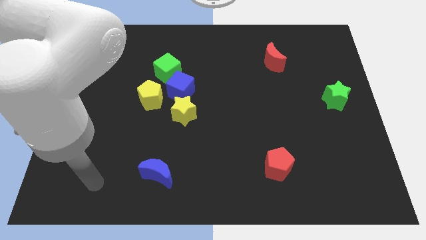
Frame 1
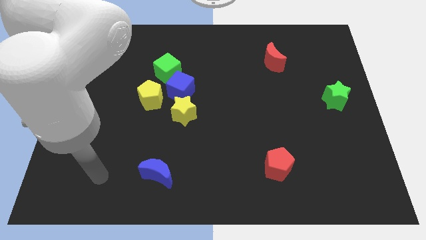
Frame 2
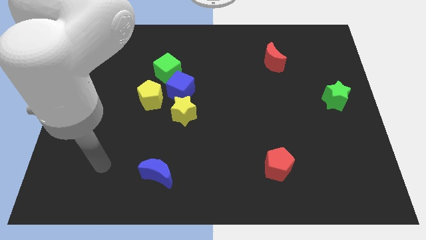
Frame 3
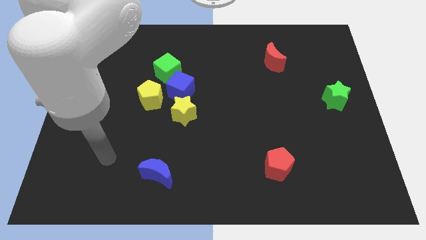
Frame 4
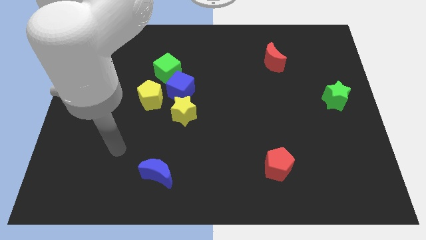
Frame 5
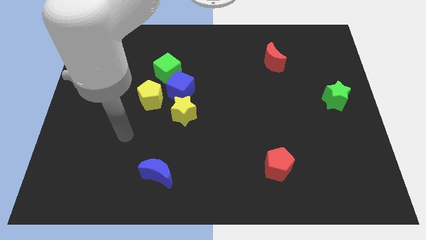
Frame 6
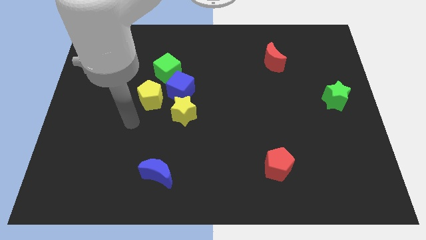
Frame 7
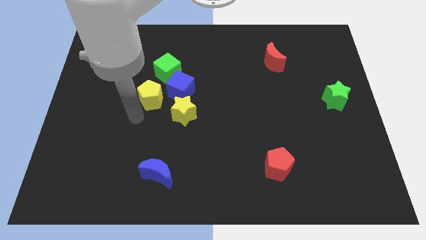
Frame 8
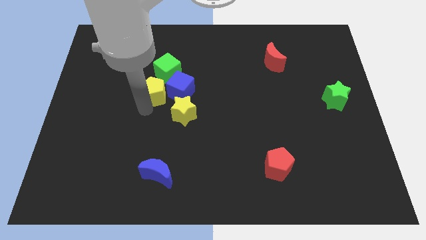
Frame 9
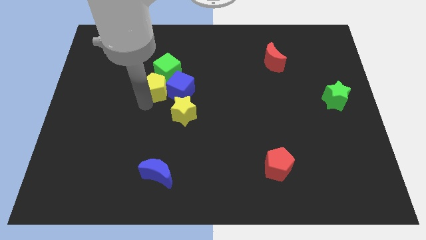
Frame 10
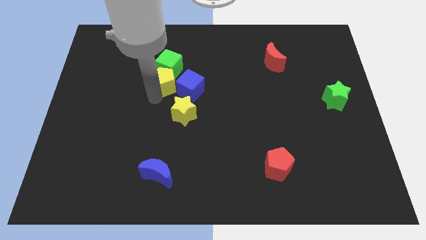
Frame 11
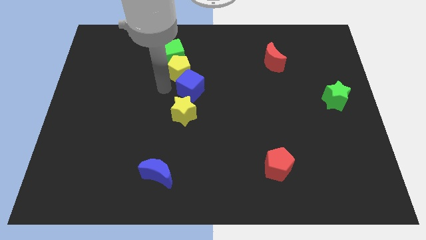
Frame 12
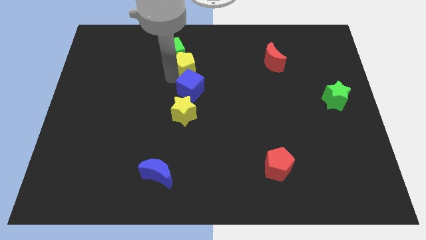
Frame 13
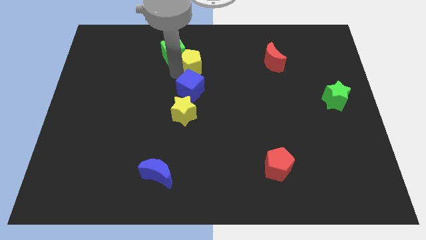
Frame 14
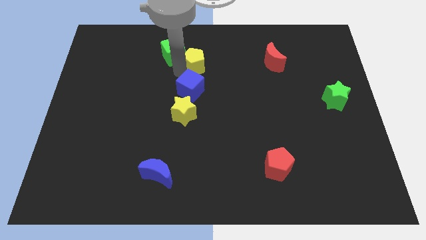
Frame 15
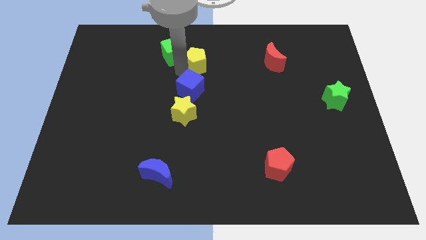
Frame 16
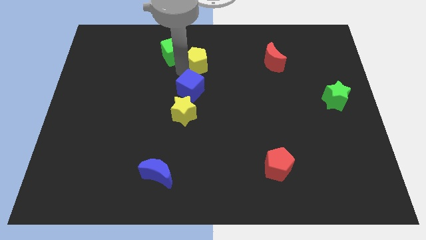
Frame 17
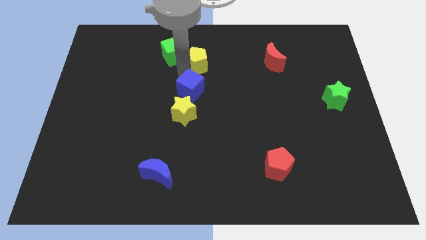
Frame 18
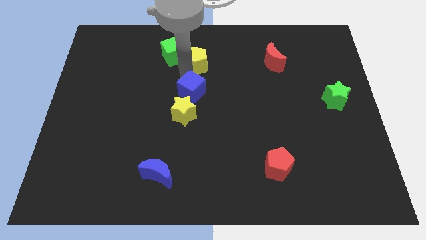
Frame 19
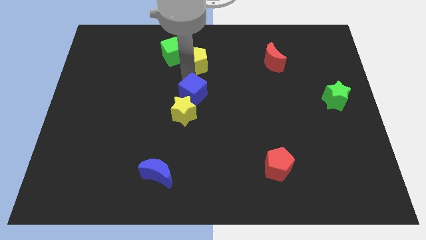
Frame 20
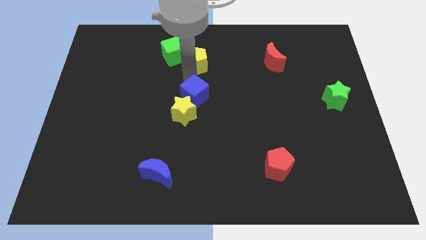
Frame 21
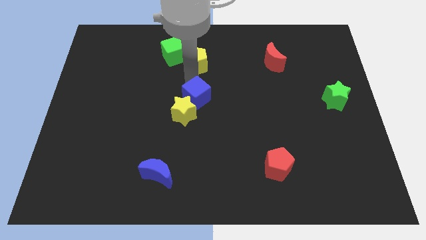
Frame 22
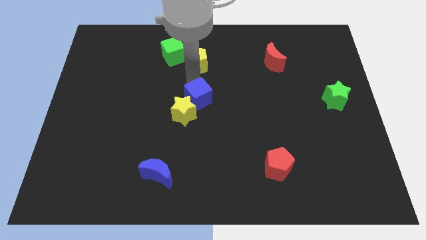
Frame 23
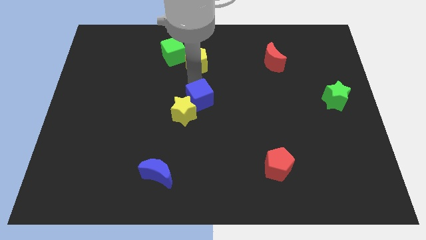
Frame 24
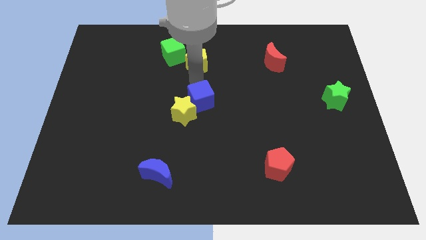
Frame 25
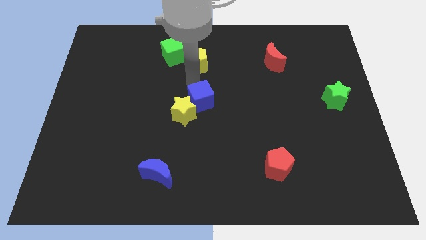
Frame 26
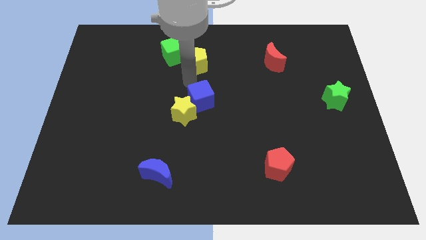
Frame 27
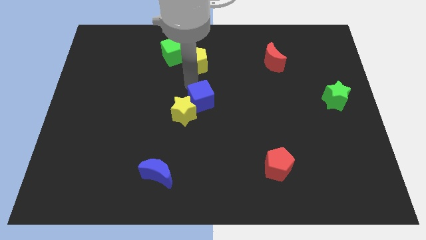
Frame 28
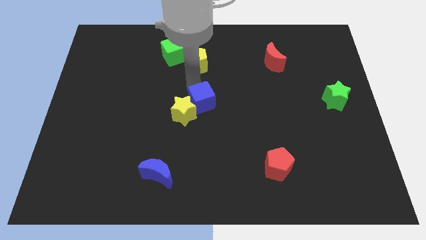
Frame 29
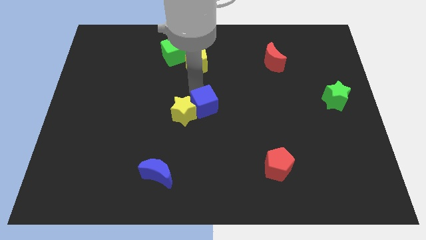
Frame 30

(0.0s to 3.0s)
move the blue cube away from the group of blocks

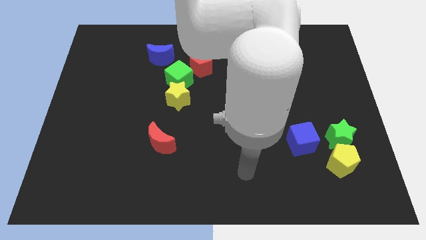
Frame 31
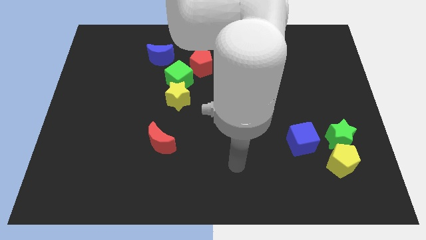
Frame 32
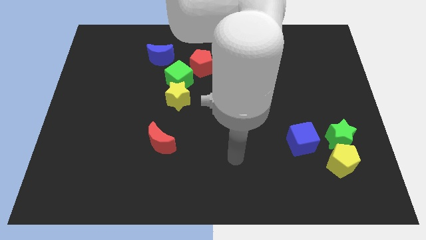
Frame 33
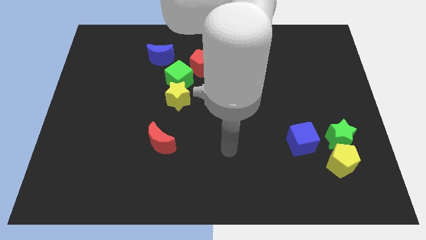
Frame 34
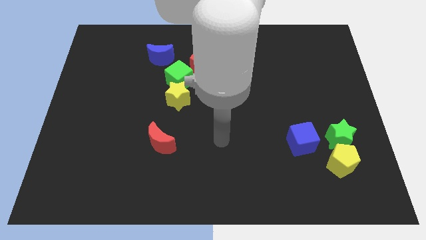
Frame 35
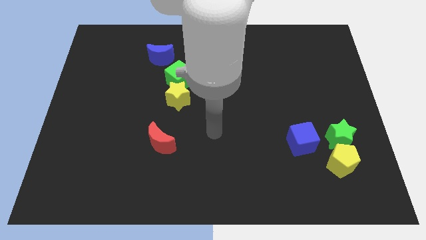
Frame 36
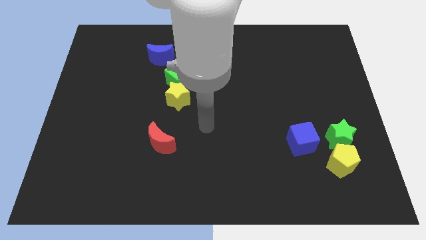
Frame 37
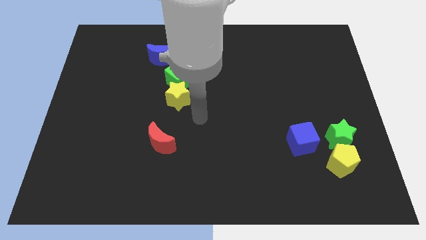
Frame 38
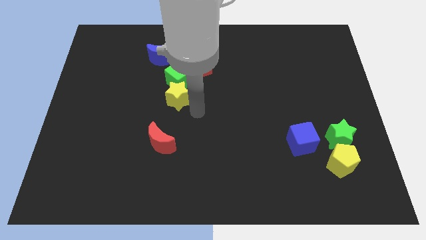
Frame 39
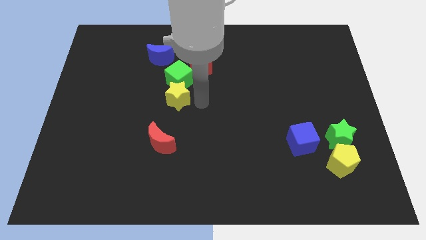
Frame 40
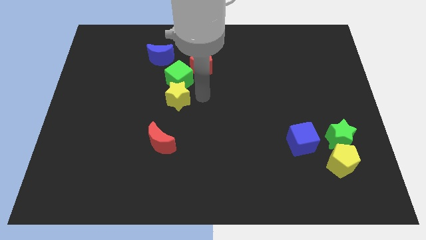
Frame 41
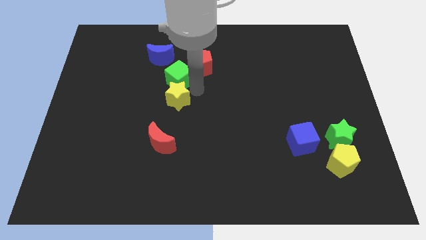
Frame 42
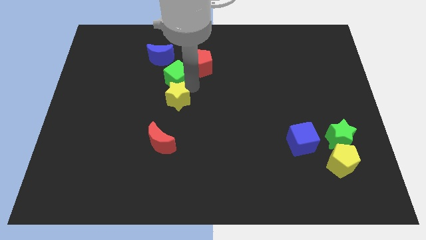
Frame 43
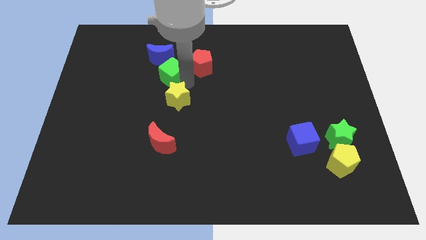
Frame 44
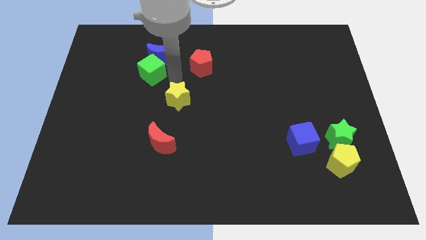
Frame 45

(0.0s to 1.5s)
move the yellow star away from the green cube

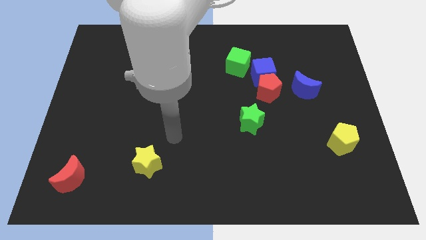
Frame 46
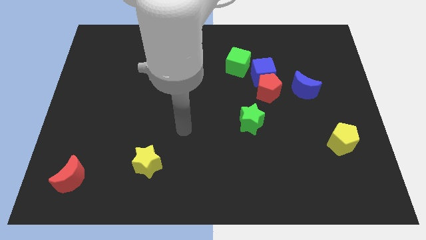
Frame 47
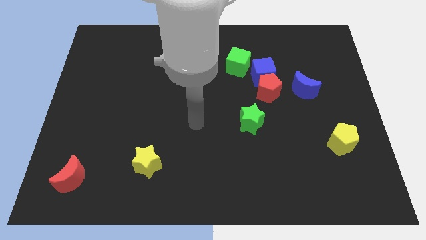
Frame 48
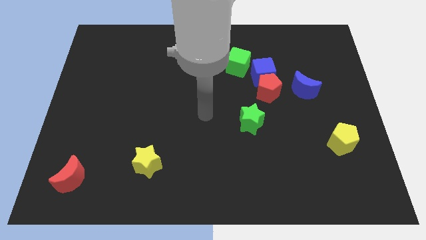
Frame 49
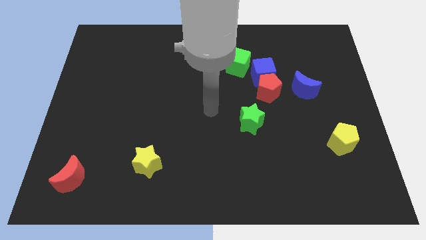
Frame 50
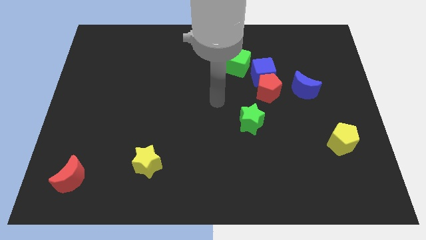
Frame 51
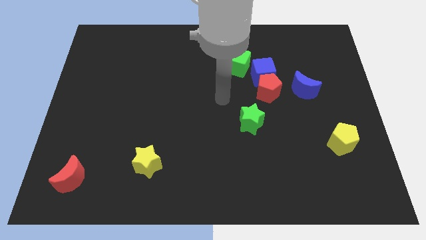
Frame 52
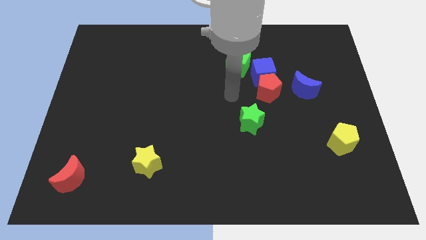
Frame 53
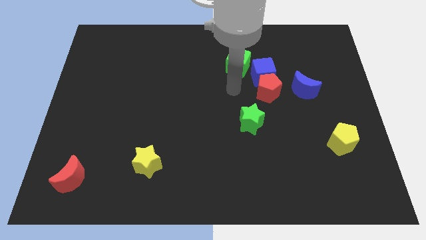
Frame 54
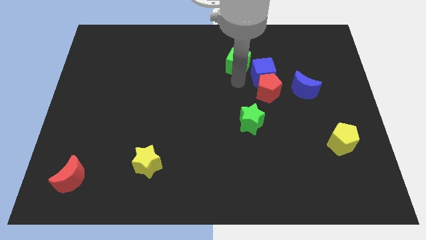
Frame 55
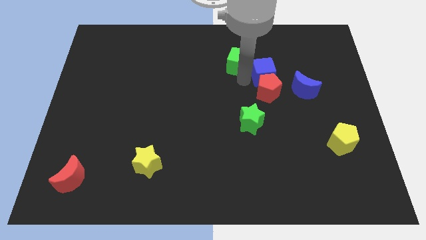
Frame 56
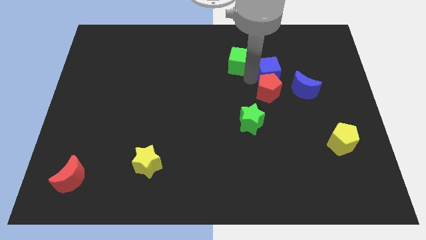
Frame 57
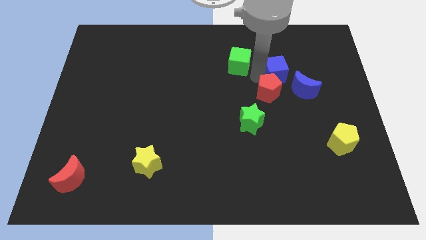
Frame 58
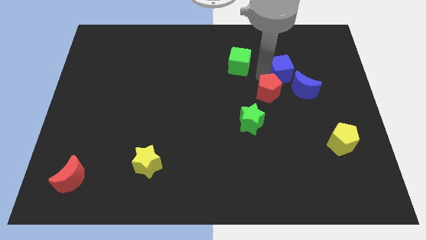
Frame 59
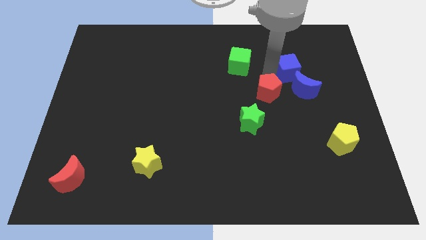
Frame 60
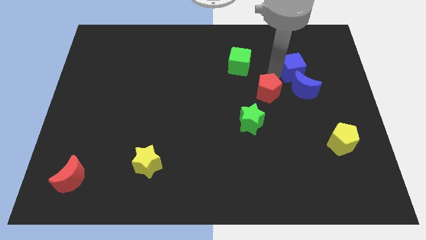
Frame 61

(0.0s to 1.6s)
pull the blue cube apart from the red pentagon and green cube

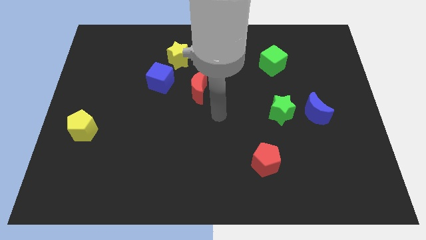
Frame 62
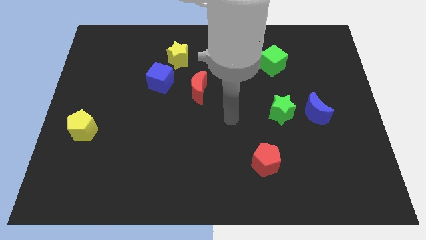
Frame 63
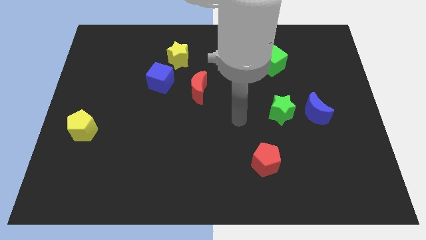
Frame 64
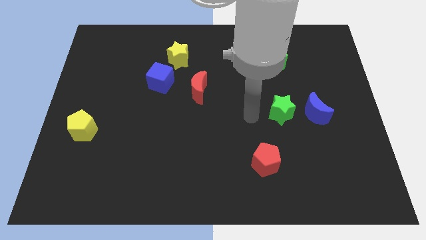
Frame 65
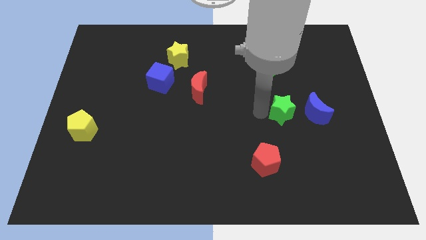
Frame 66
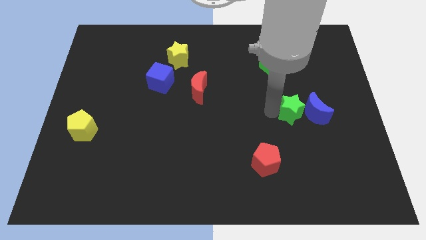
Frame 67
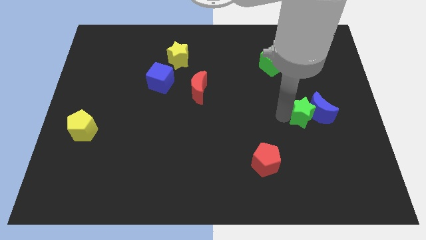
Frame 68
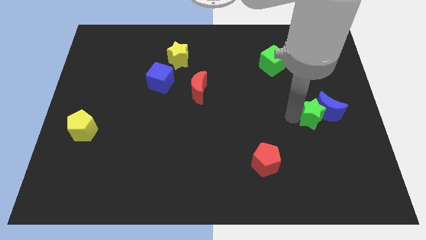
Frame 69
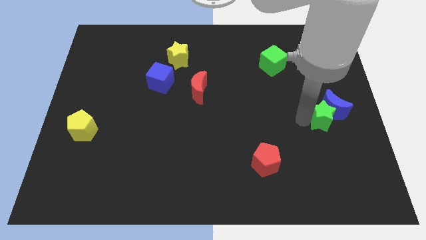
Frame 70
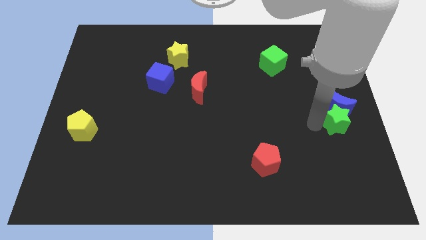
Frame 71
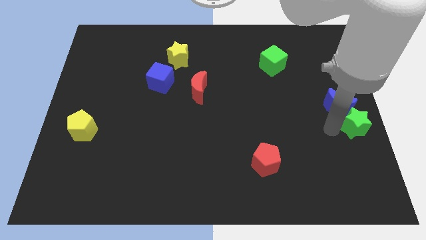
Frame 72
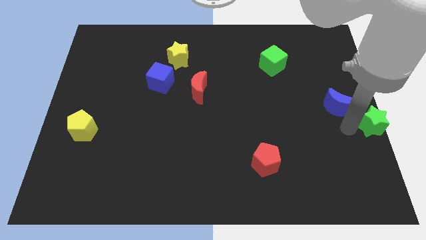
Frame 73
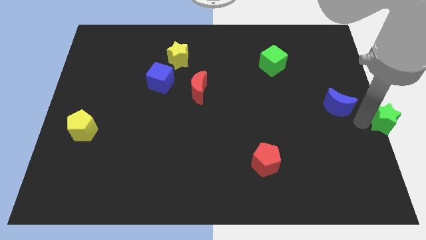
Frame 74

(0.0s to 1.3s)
move the blue moon away from the green star

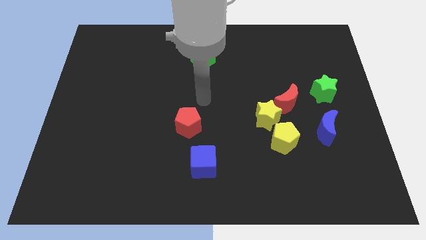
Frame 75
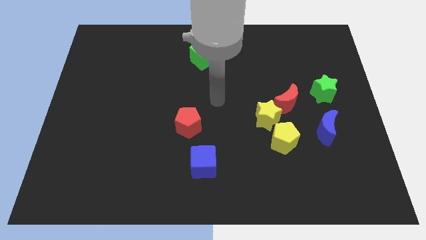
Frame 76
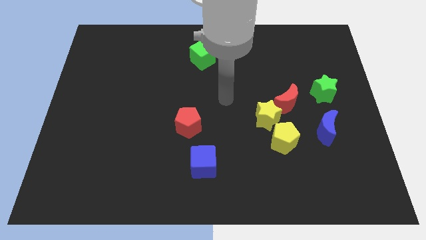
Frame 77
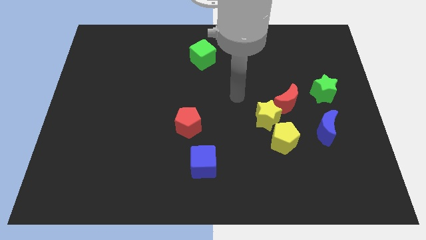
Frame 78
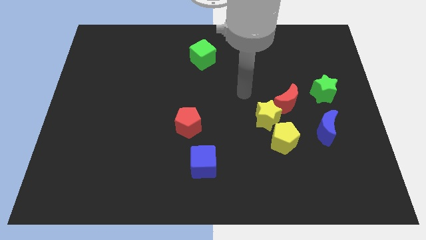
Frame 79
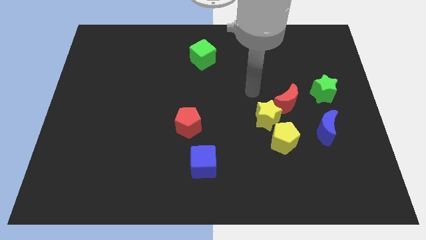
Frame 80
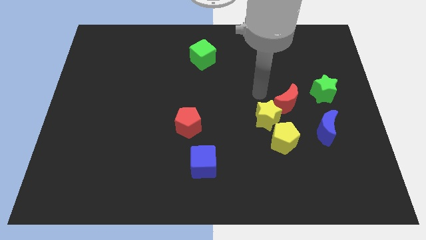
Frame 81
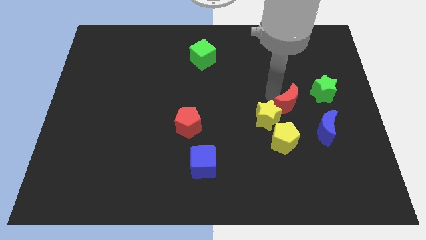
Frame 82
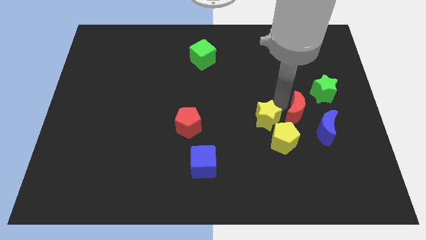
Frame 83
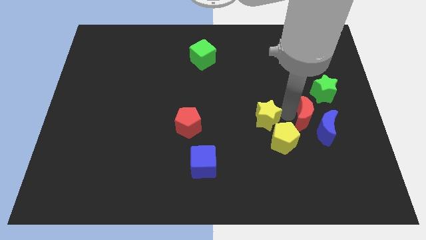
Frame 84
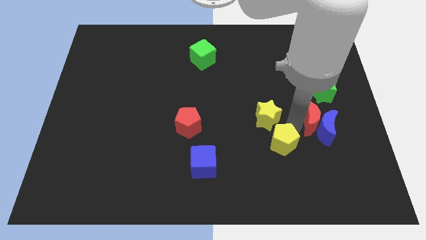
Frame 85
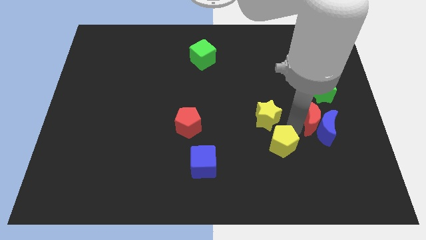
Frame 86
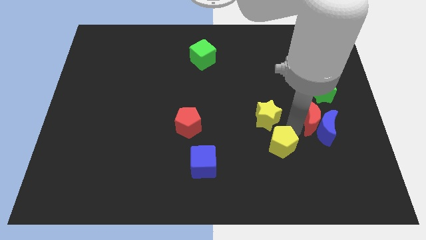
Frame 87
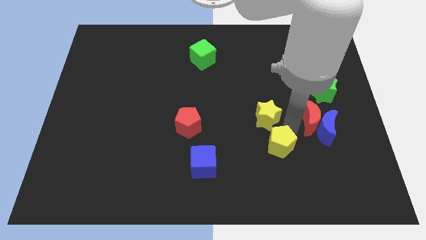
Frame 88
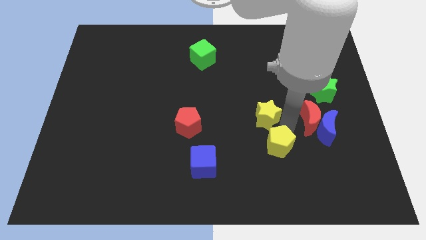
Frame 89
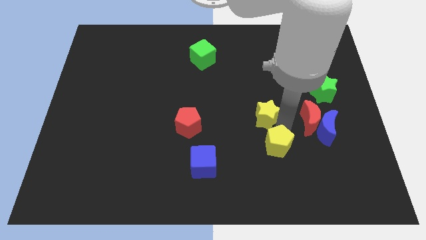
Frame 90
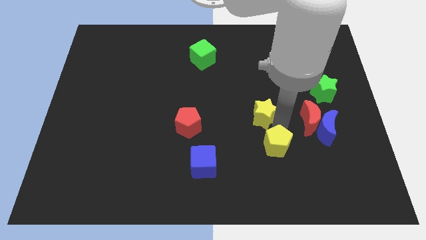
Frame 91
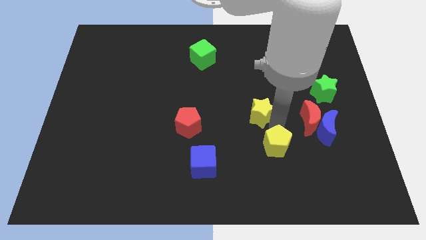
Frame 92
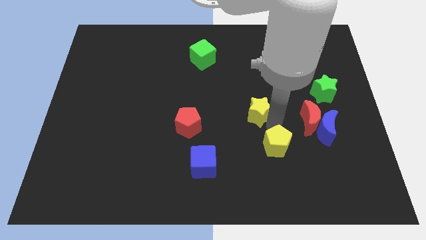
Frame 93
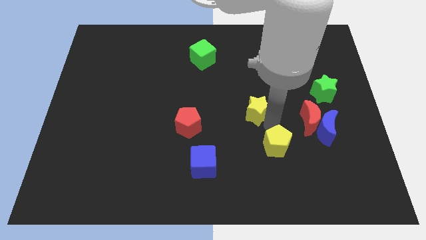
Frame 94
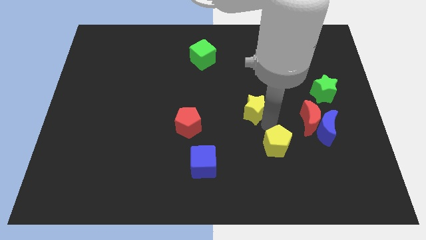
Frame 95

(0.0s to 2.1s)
move the yellow star away from the red moon and yellow pentagon
